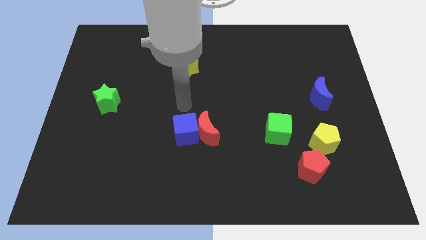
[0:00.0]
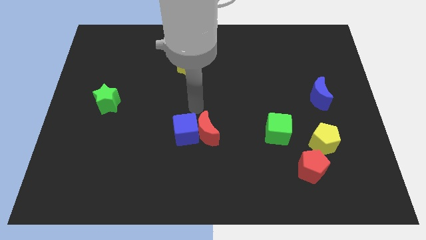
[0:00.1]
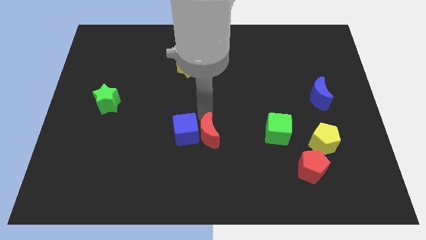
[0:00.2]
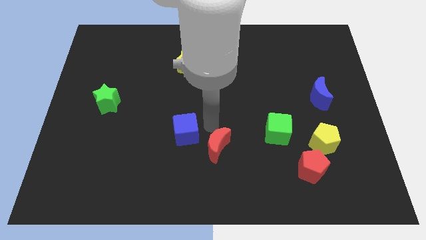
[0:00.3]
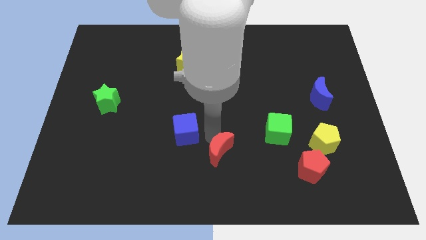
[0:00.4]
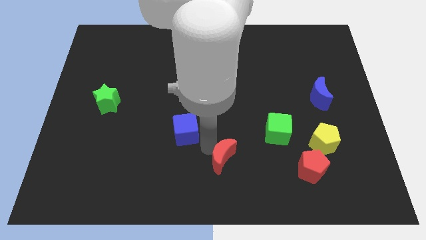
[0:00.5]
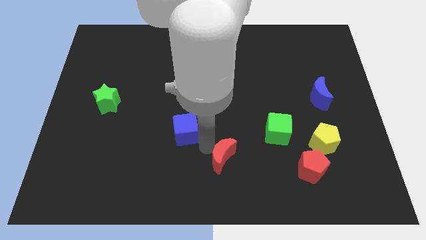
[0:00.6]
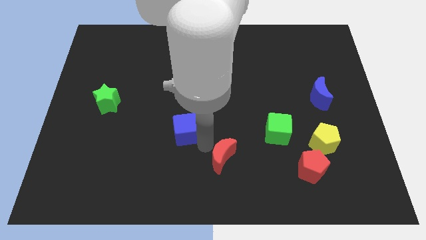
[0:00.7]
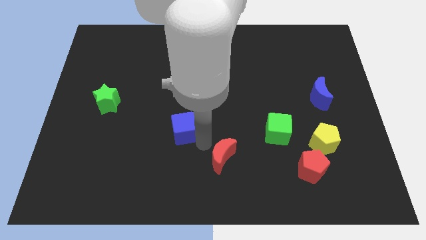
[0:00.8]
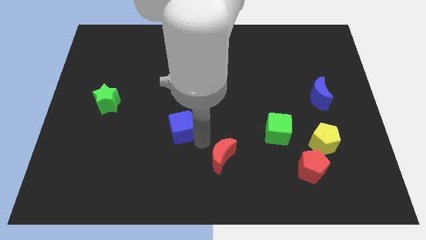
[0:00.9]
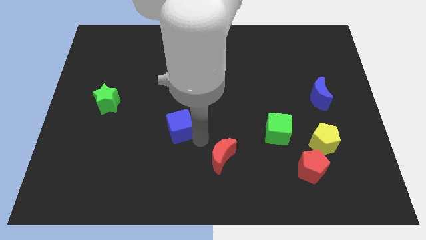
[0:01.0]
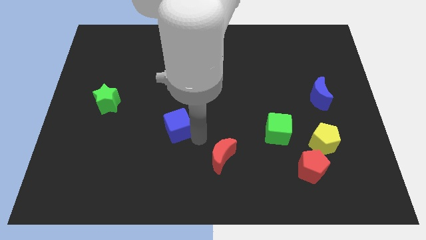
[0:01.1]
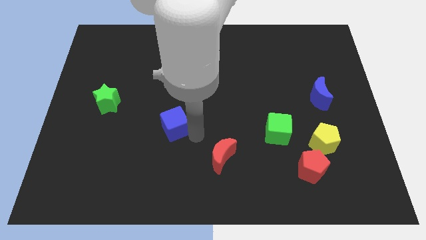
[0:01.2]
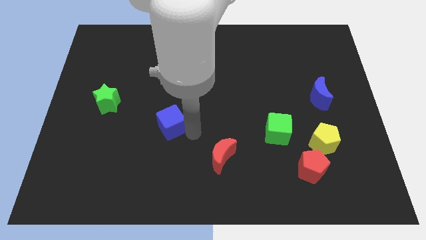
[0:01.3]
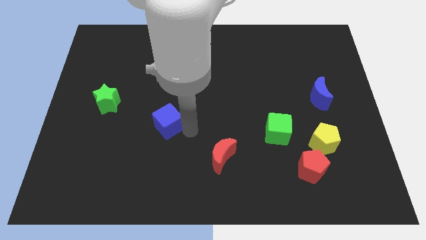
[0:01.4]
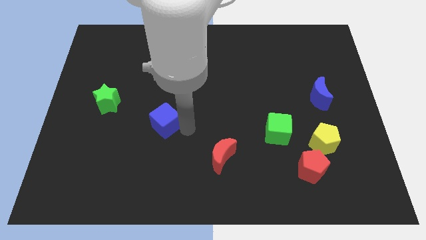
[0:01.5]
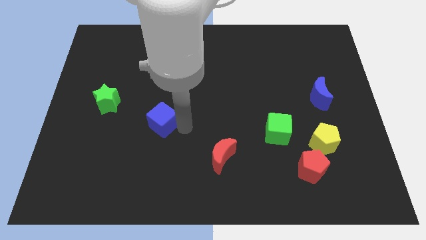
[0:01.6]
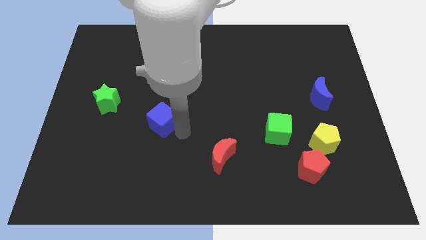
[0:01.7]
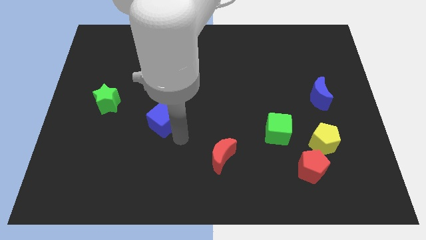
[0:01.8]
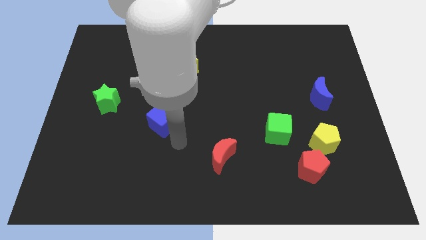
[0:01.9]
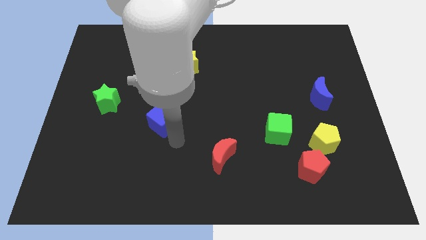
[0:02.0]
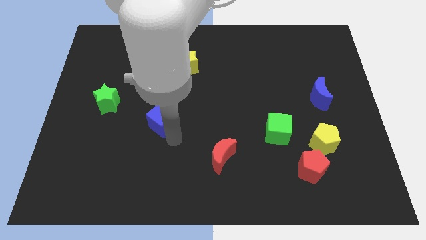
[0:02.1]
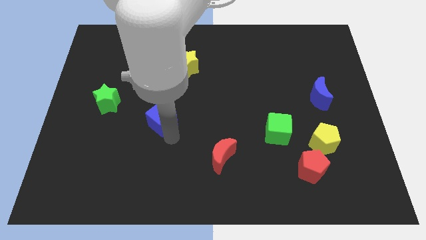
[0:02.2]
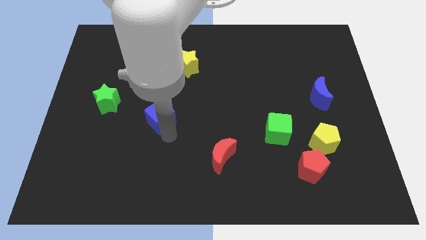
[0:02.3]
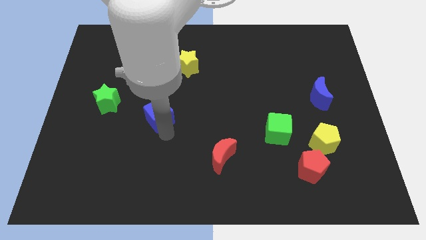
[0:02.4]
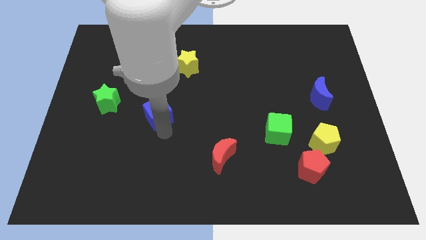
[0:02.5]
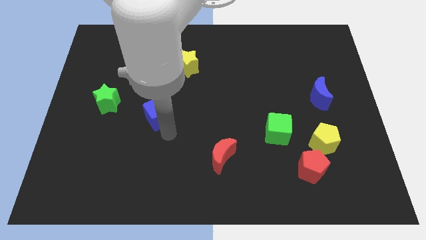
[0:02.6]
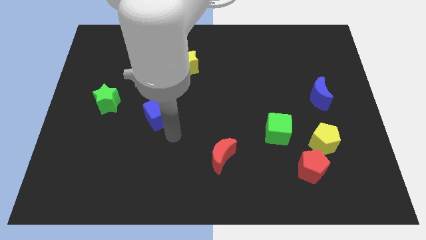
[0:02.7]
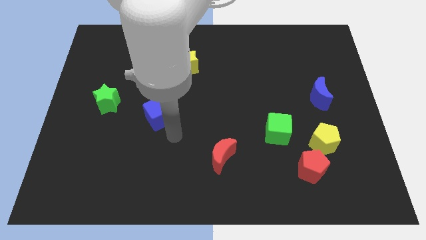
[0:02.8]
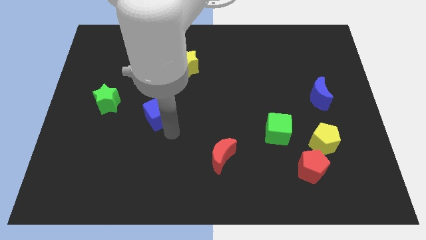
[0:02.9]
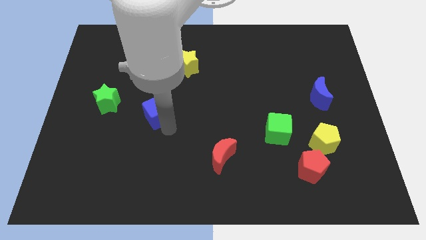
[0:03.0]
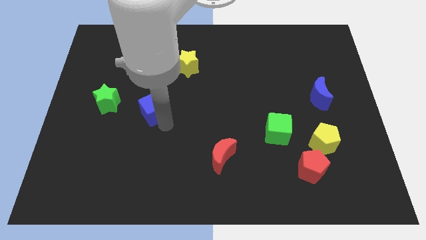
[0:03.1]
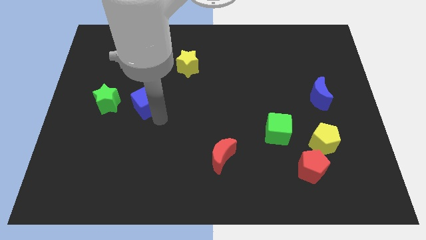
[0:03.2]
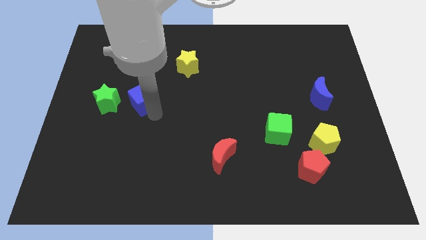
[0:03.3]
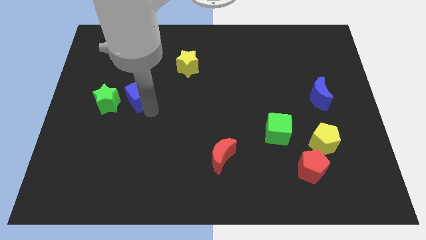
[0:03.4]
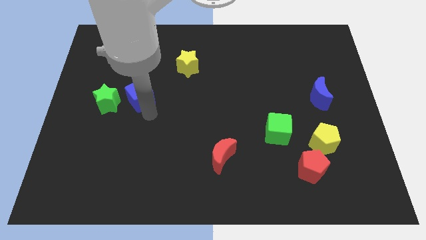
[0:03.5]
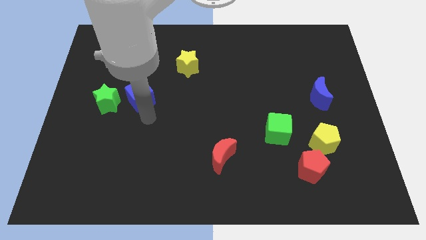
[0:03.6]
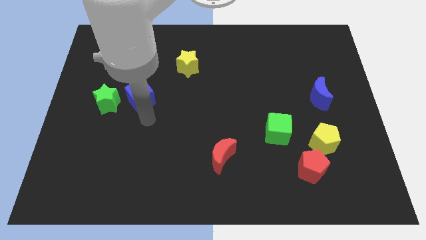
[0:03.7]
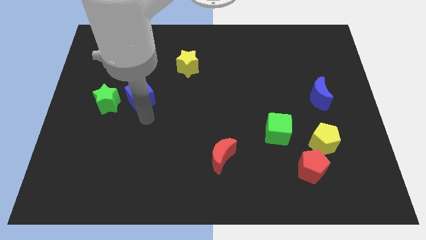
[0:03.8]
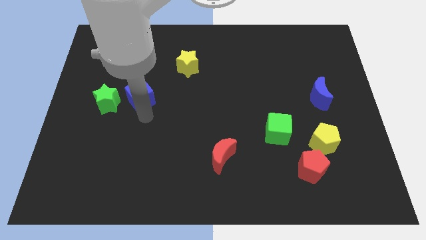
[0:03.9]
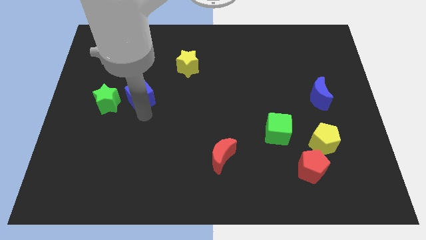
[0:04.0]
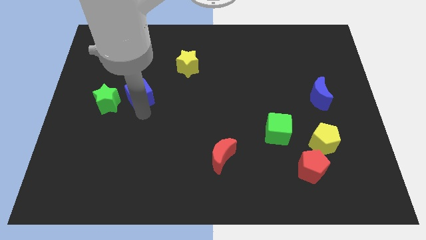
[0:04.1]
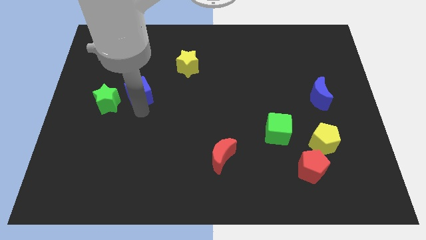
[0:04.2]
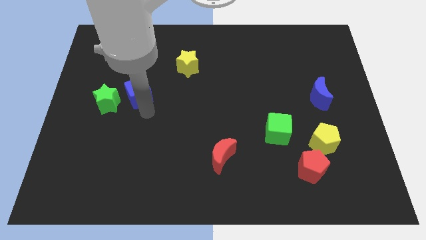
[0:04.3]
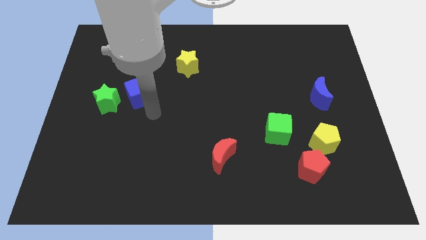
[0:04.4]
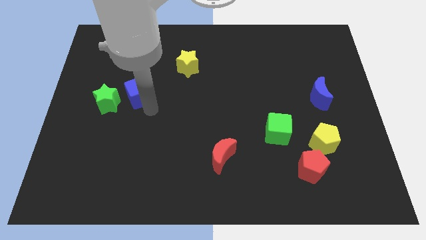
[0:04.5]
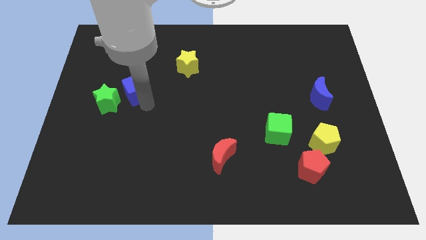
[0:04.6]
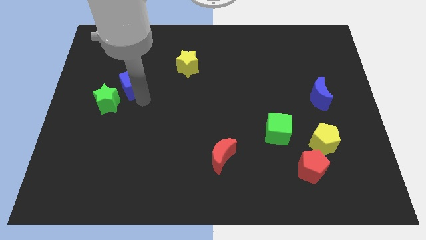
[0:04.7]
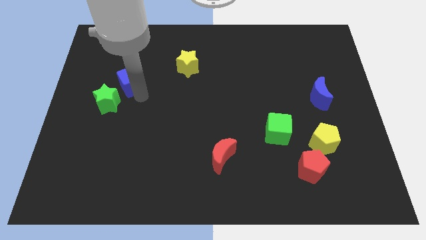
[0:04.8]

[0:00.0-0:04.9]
slide the blue cube upwards and to the left

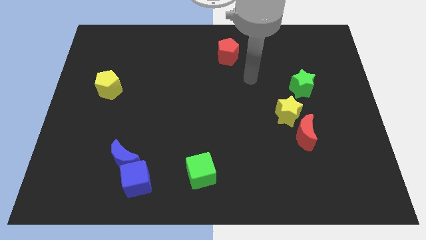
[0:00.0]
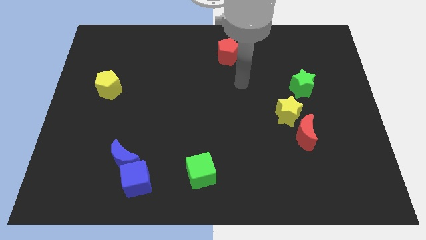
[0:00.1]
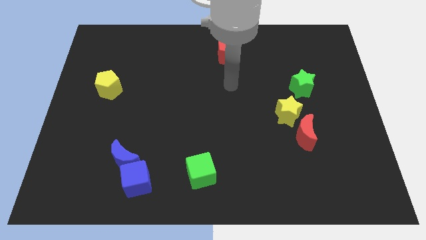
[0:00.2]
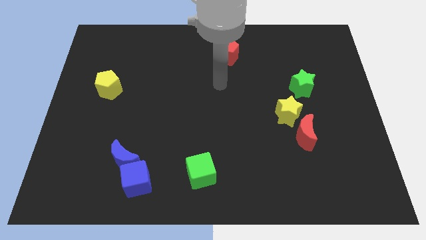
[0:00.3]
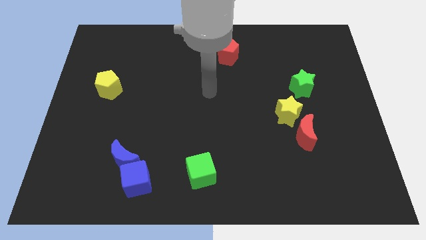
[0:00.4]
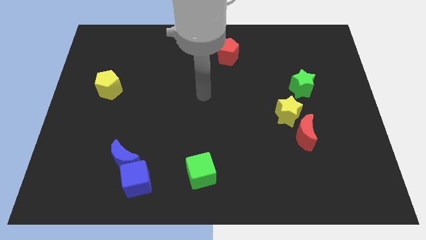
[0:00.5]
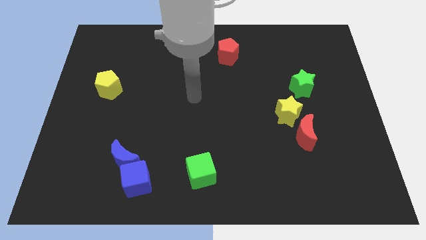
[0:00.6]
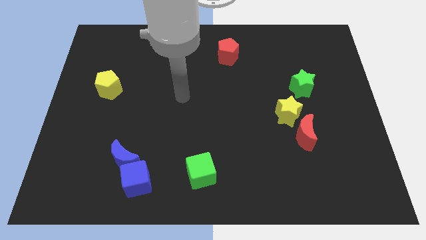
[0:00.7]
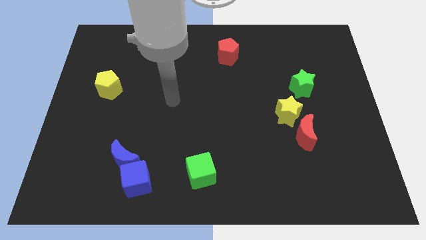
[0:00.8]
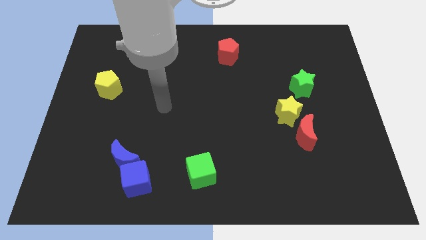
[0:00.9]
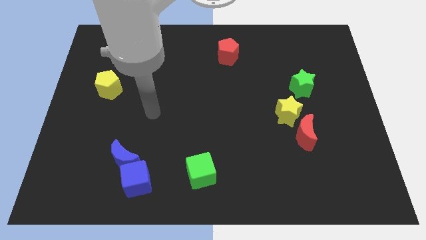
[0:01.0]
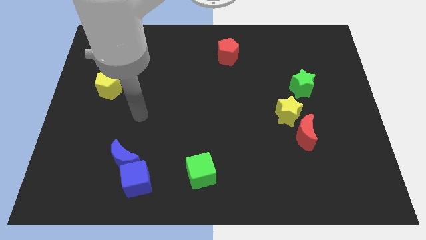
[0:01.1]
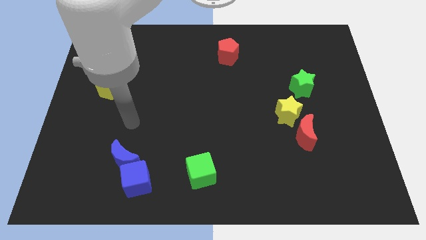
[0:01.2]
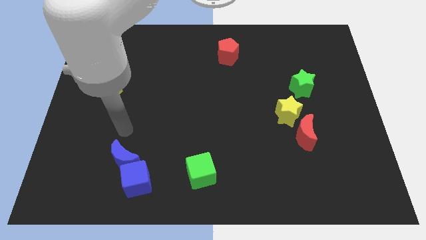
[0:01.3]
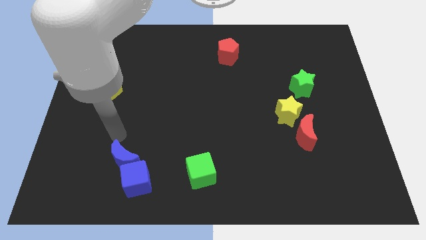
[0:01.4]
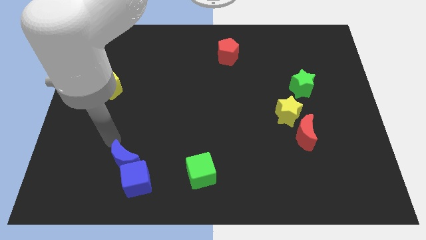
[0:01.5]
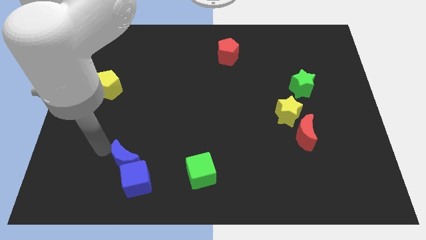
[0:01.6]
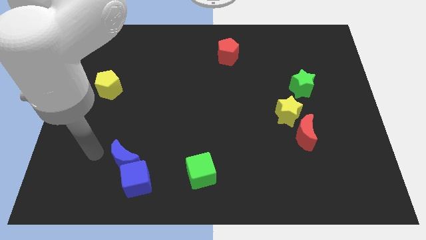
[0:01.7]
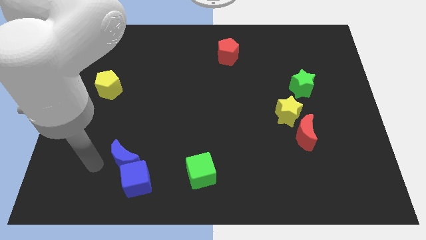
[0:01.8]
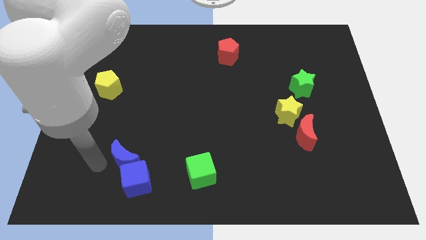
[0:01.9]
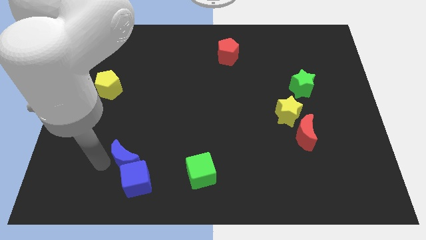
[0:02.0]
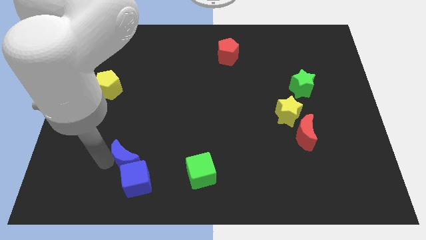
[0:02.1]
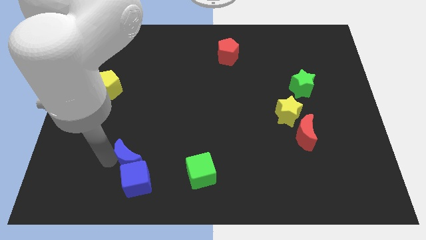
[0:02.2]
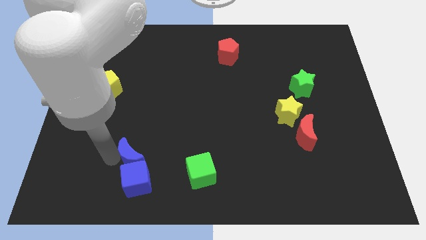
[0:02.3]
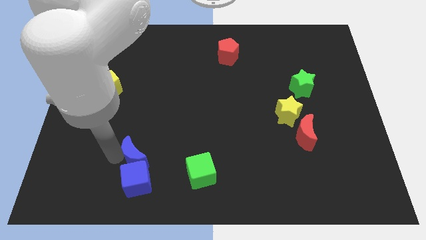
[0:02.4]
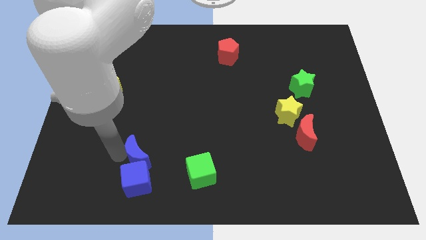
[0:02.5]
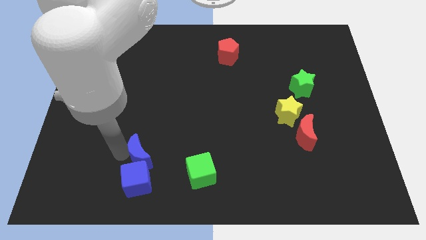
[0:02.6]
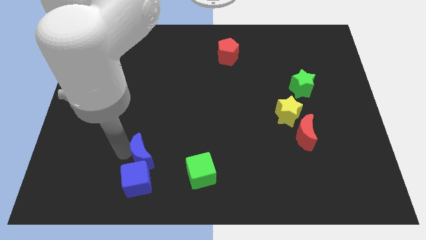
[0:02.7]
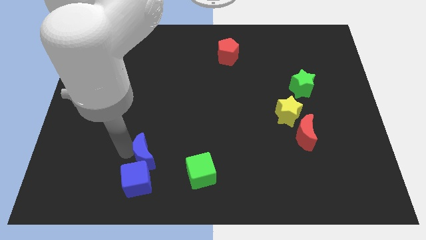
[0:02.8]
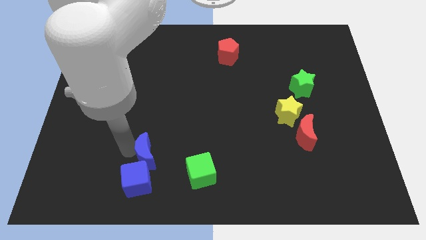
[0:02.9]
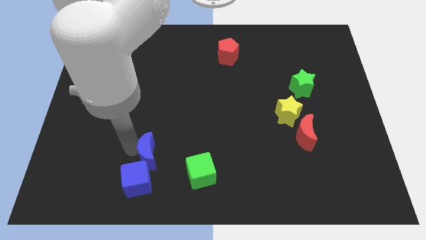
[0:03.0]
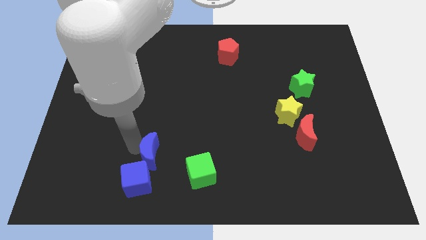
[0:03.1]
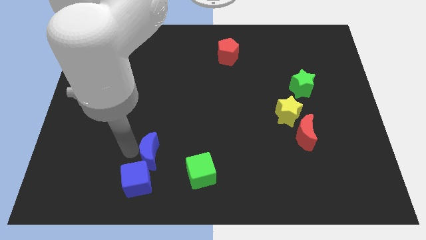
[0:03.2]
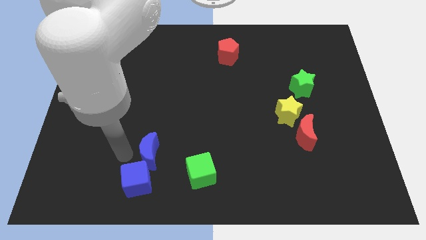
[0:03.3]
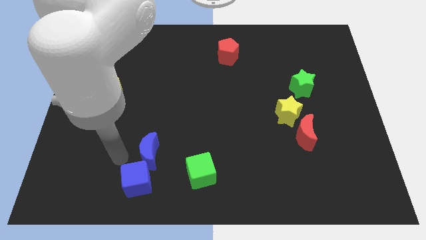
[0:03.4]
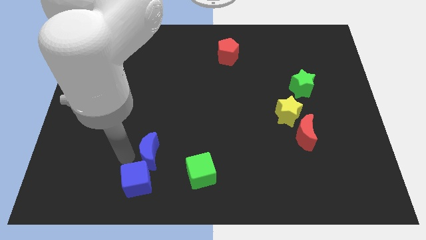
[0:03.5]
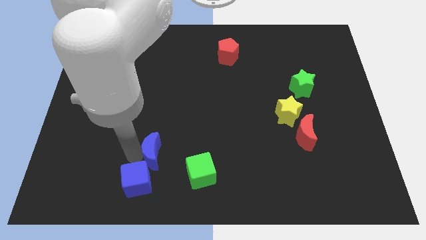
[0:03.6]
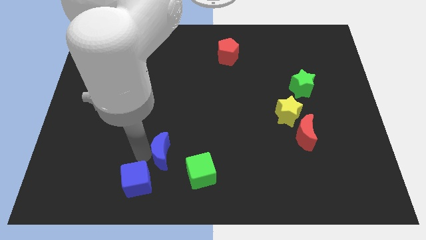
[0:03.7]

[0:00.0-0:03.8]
push the blue moon to the right a little
